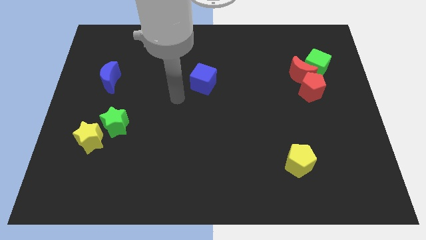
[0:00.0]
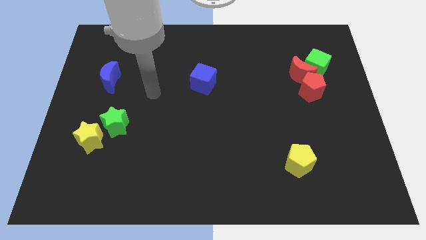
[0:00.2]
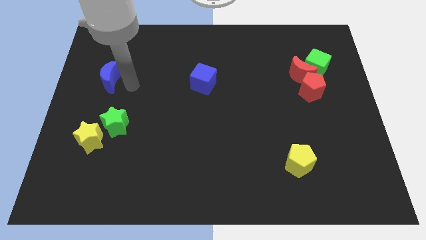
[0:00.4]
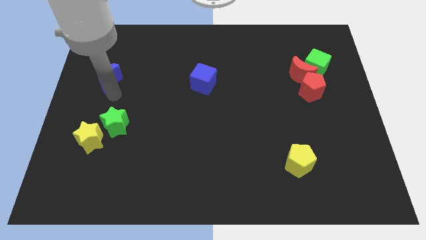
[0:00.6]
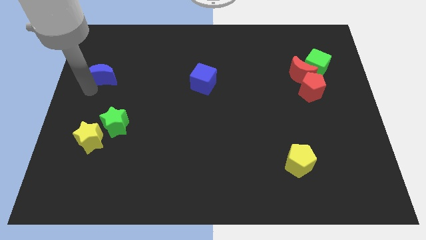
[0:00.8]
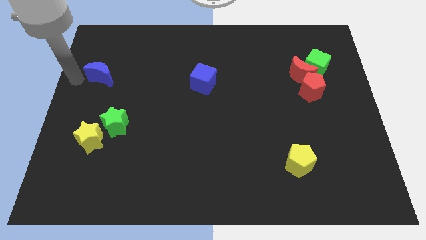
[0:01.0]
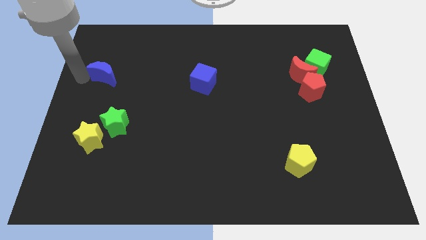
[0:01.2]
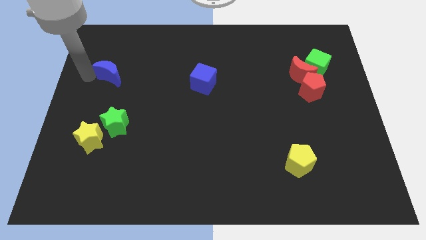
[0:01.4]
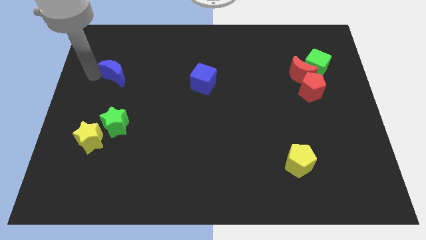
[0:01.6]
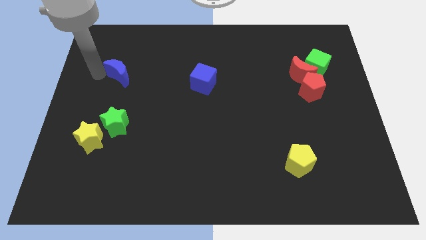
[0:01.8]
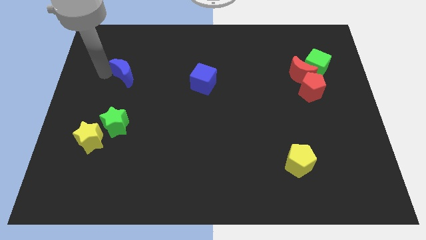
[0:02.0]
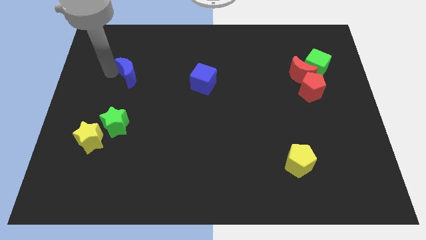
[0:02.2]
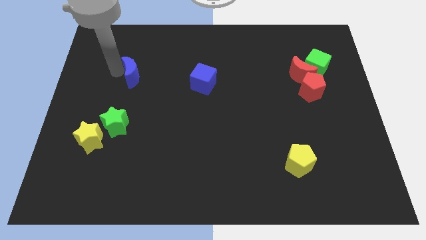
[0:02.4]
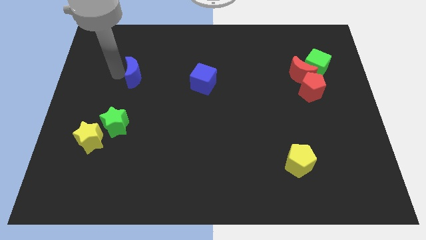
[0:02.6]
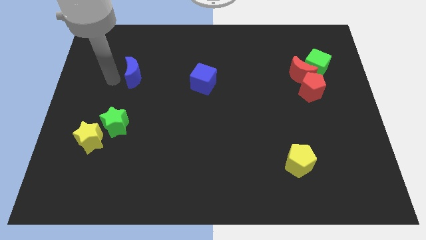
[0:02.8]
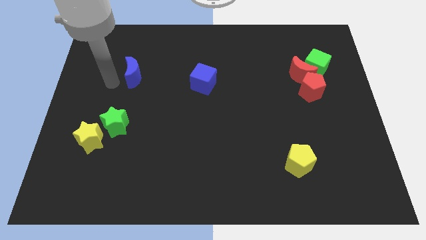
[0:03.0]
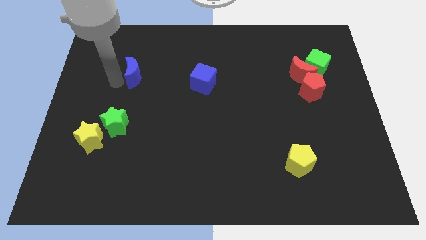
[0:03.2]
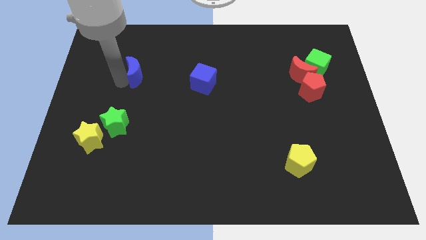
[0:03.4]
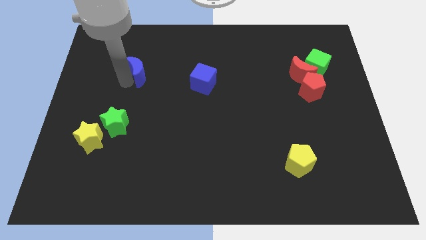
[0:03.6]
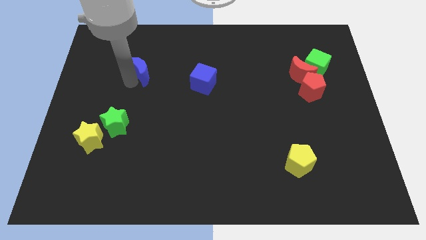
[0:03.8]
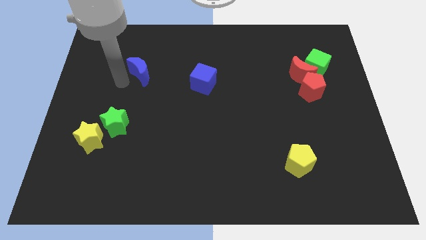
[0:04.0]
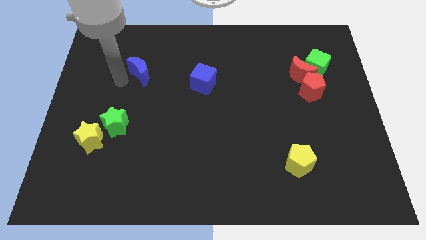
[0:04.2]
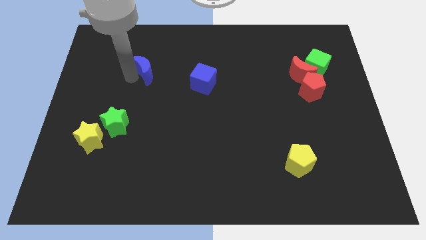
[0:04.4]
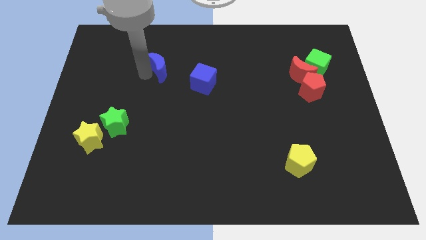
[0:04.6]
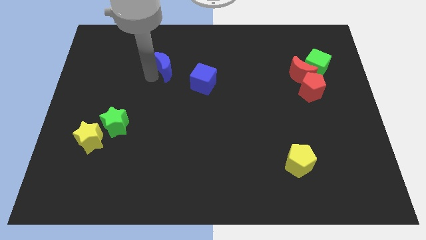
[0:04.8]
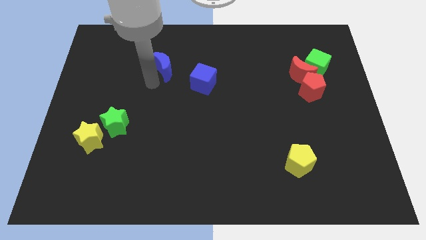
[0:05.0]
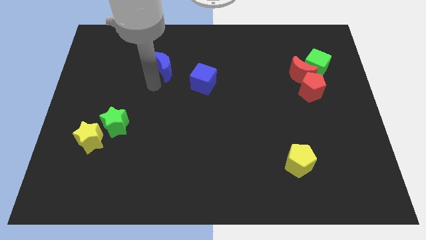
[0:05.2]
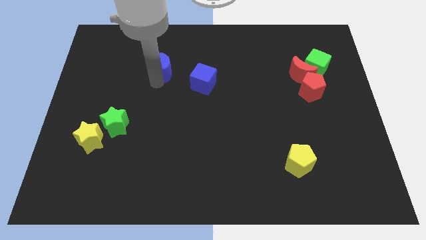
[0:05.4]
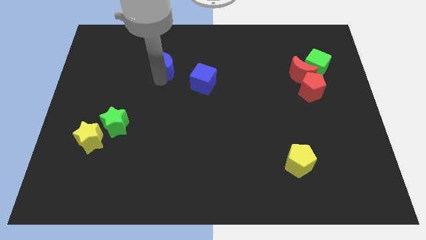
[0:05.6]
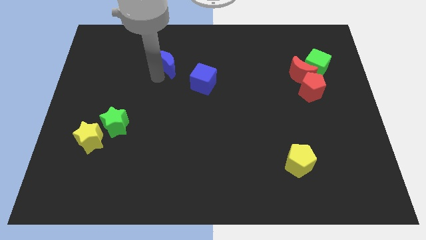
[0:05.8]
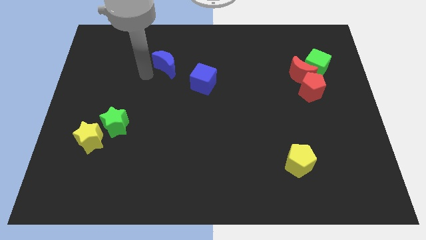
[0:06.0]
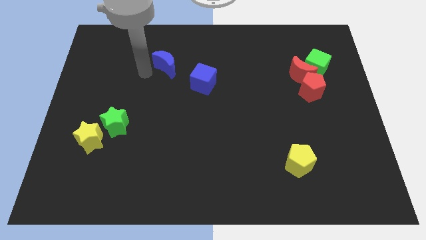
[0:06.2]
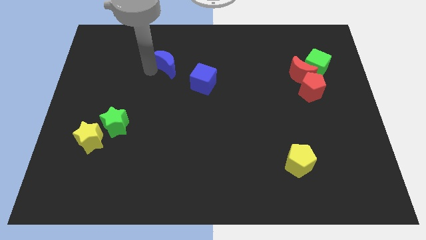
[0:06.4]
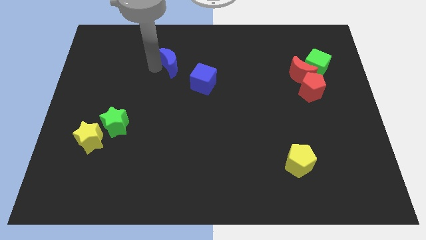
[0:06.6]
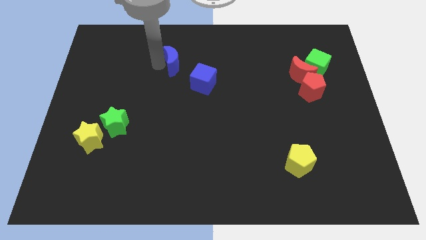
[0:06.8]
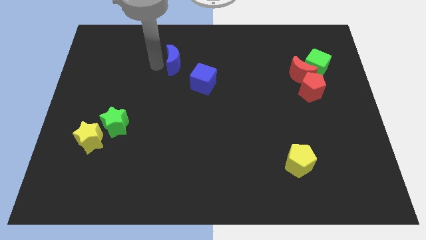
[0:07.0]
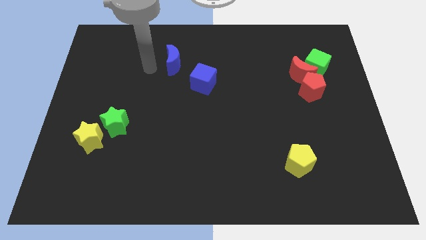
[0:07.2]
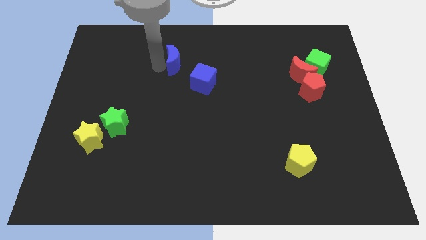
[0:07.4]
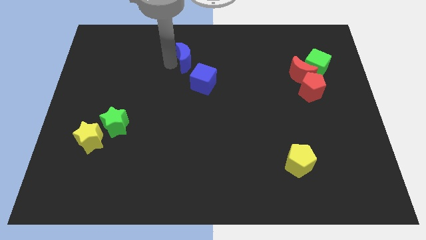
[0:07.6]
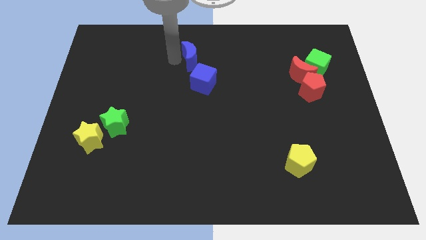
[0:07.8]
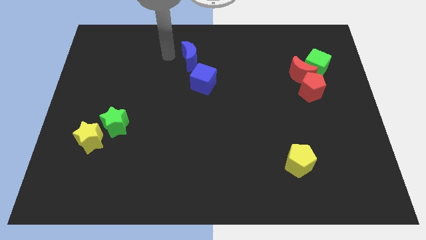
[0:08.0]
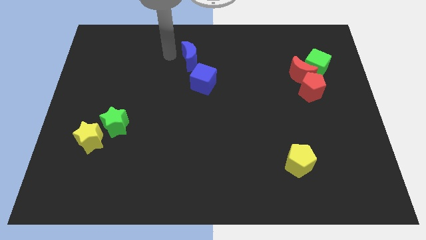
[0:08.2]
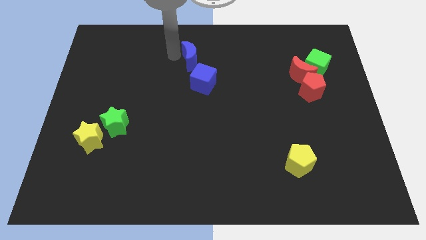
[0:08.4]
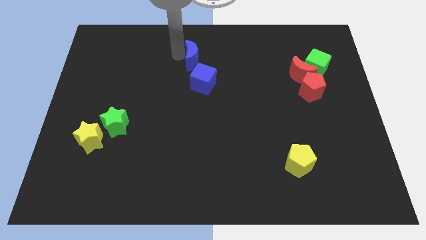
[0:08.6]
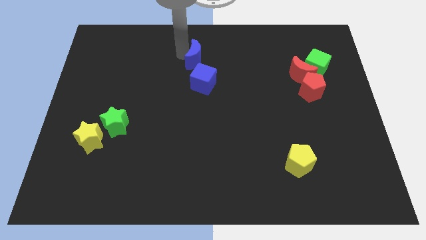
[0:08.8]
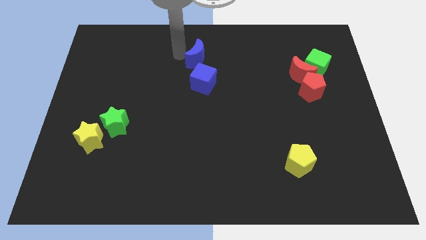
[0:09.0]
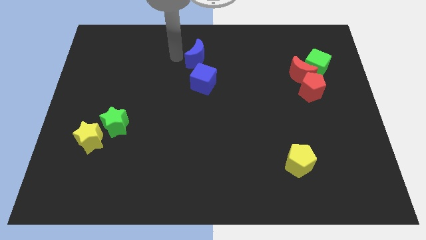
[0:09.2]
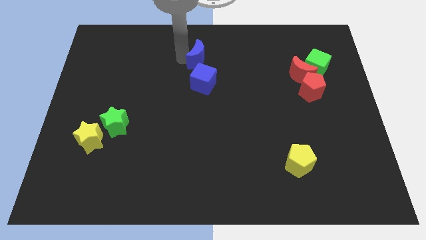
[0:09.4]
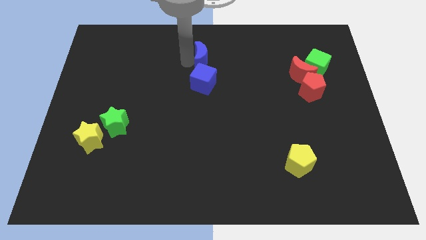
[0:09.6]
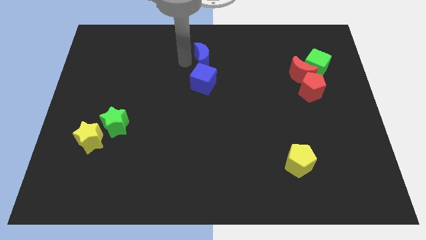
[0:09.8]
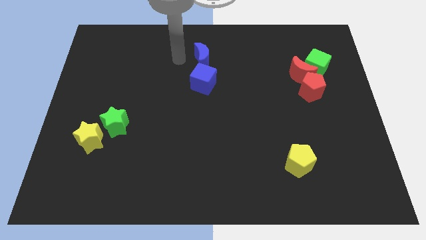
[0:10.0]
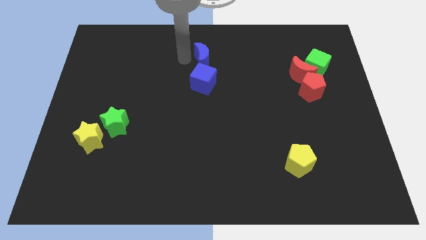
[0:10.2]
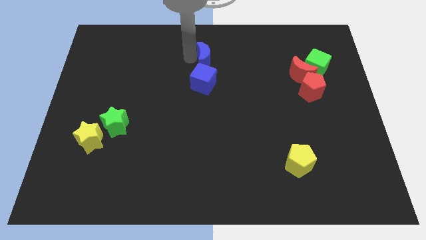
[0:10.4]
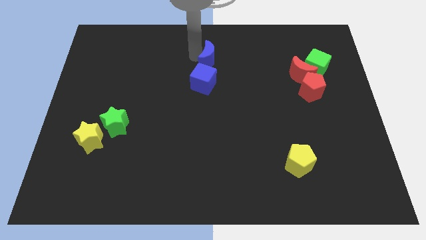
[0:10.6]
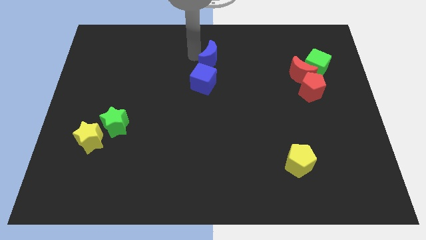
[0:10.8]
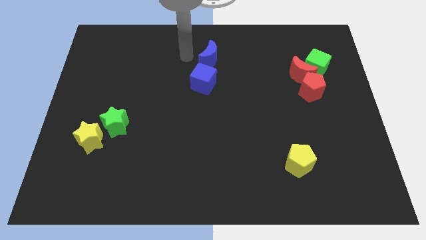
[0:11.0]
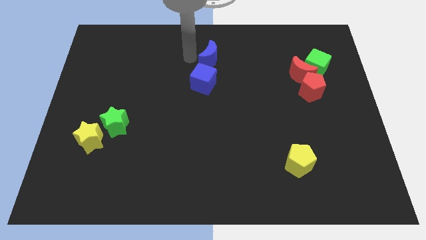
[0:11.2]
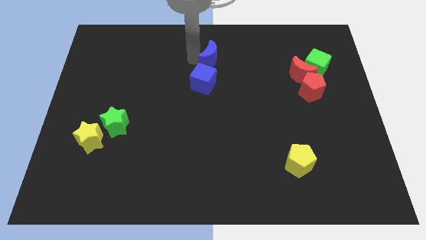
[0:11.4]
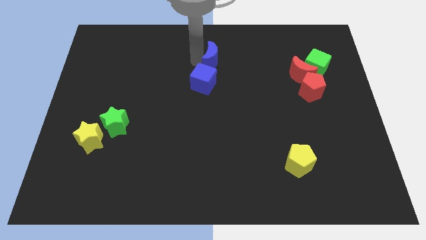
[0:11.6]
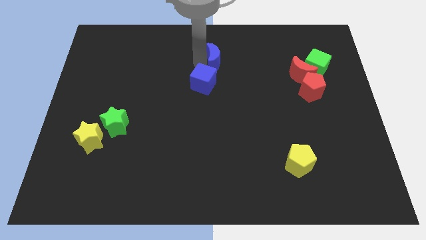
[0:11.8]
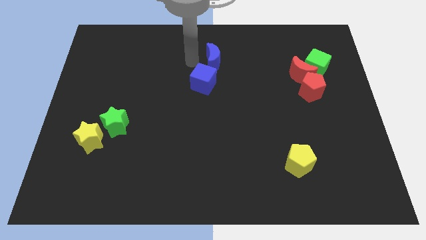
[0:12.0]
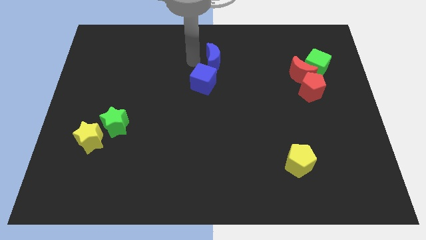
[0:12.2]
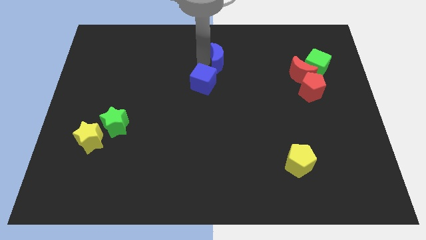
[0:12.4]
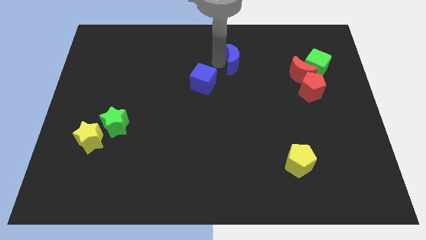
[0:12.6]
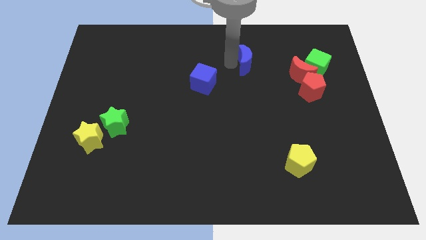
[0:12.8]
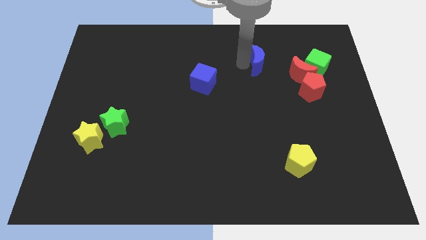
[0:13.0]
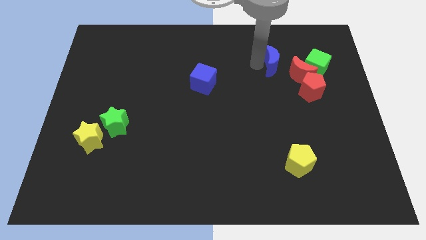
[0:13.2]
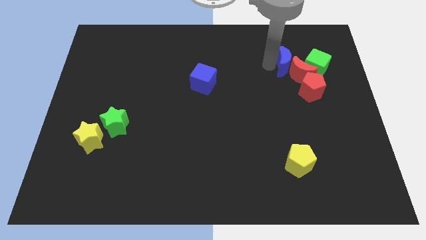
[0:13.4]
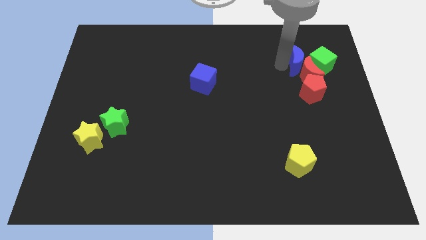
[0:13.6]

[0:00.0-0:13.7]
slide the blue moon to the green cube

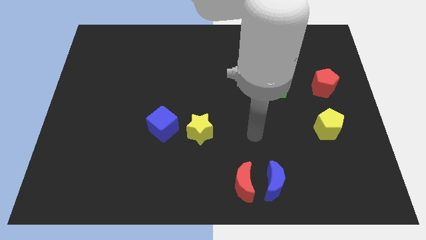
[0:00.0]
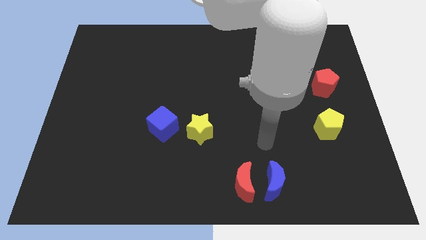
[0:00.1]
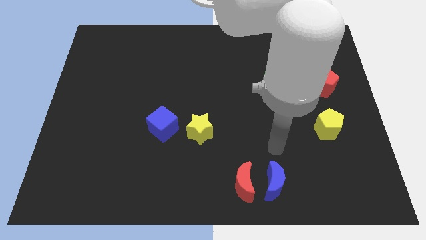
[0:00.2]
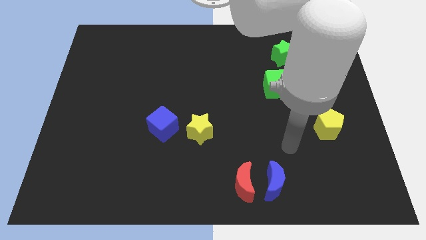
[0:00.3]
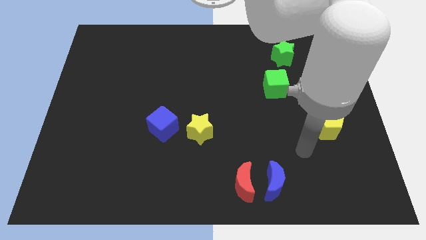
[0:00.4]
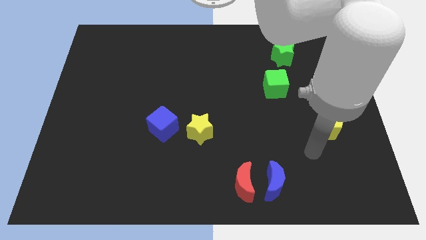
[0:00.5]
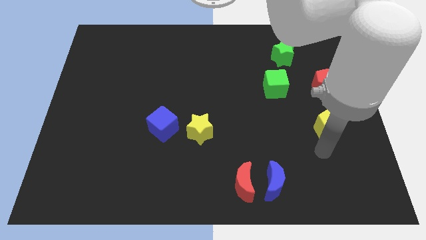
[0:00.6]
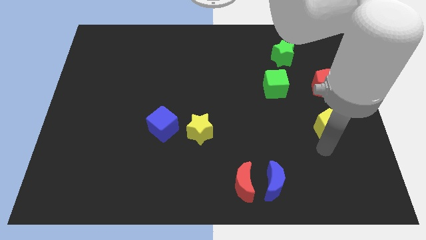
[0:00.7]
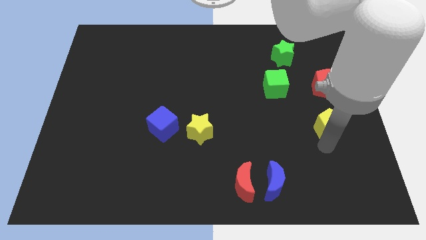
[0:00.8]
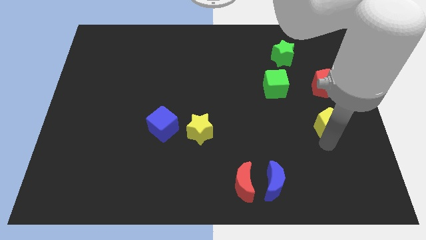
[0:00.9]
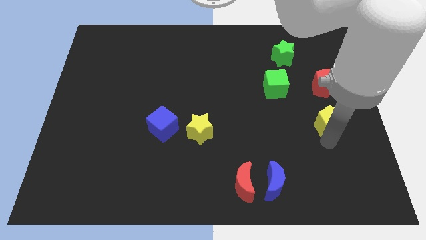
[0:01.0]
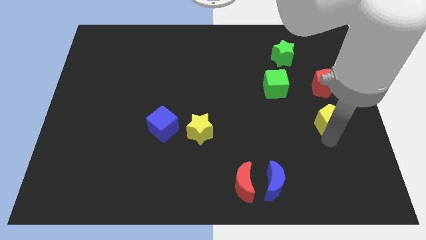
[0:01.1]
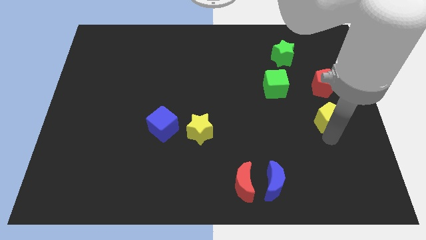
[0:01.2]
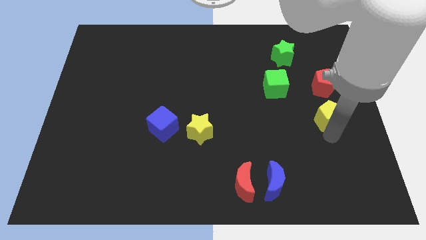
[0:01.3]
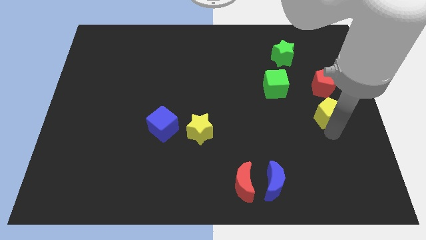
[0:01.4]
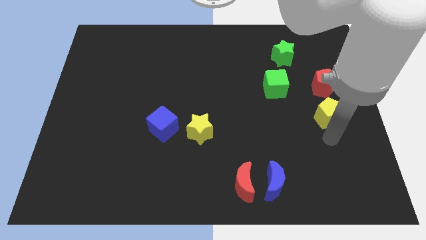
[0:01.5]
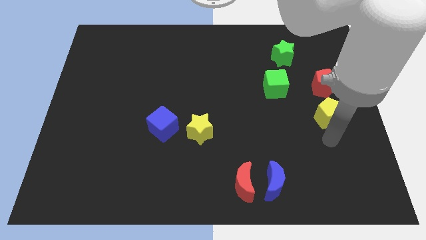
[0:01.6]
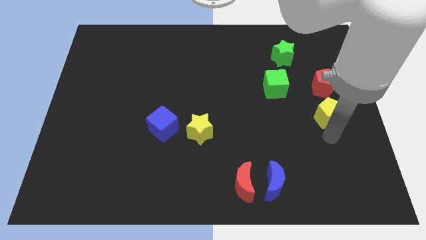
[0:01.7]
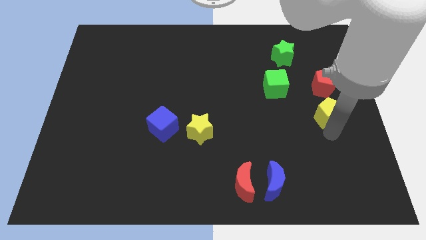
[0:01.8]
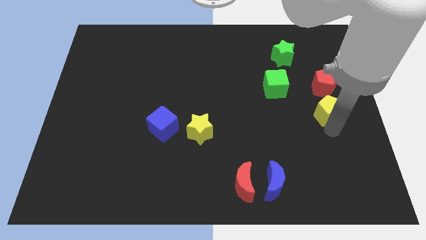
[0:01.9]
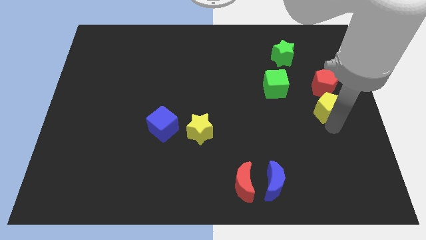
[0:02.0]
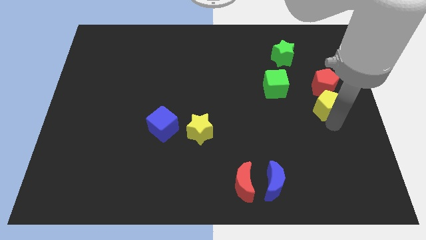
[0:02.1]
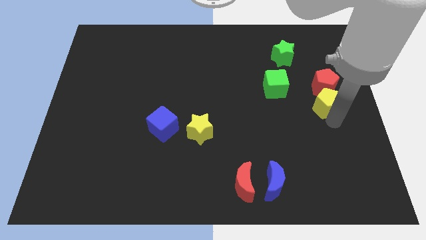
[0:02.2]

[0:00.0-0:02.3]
slide the yellow pentagon towards the red pentagon
